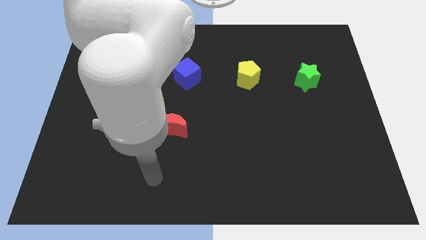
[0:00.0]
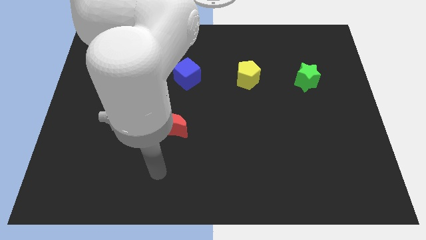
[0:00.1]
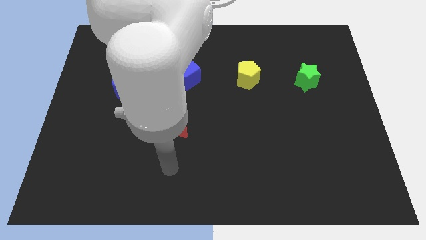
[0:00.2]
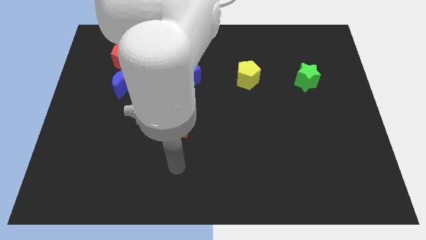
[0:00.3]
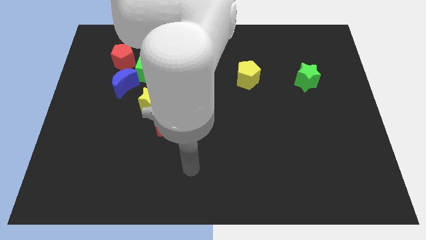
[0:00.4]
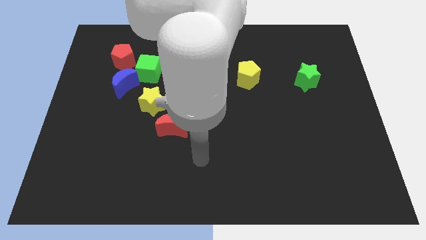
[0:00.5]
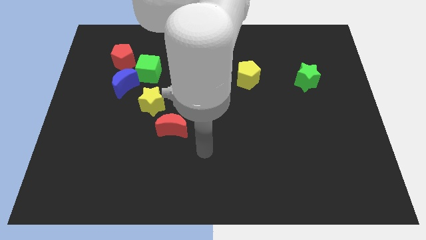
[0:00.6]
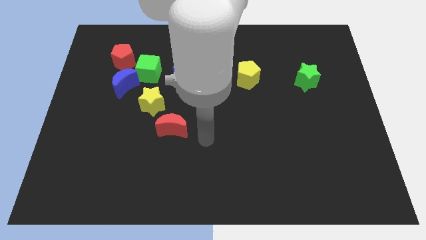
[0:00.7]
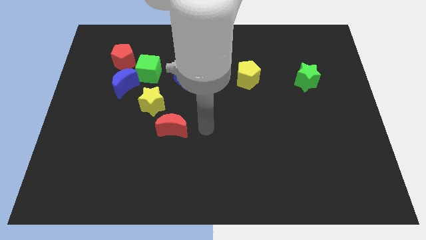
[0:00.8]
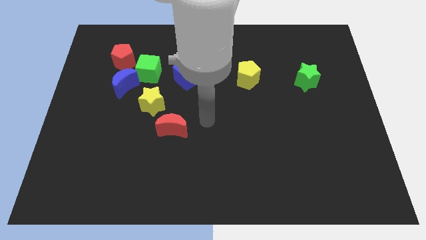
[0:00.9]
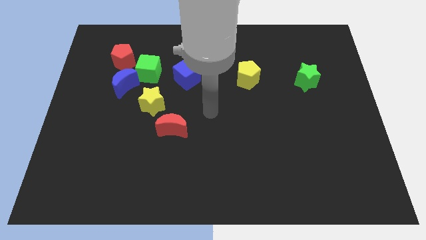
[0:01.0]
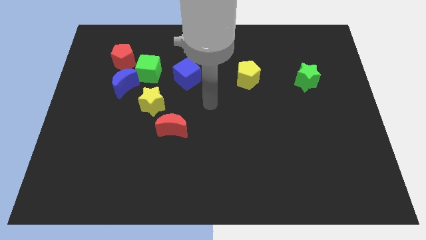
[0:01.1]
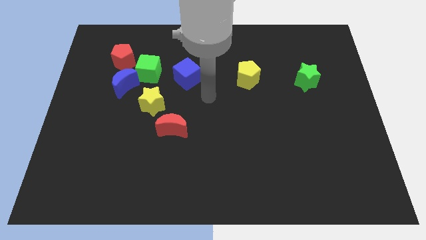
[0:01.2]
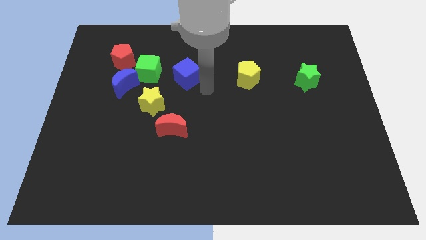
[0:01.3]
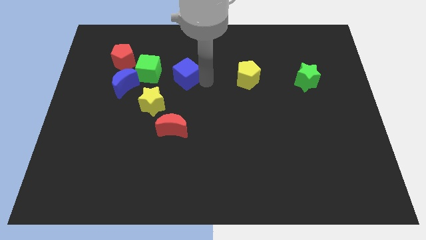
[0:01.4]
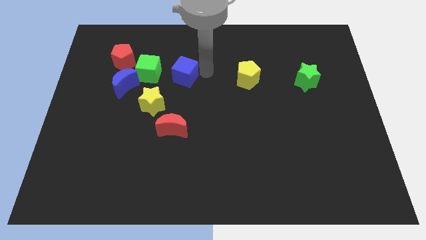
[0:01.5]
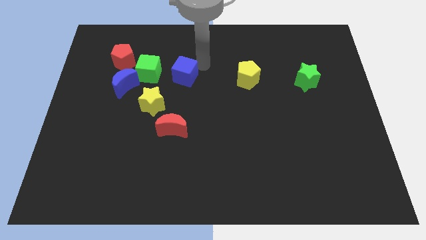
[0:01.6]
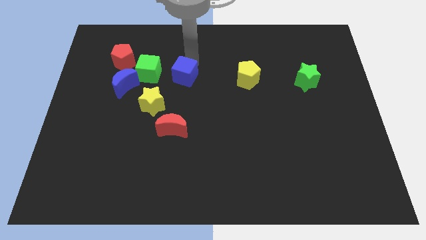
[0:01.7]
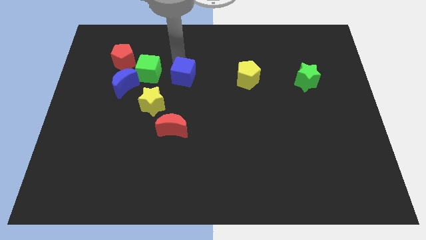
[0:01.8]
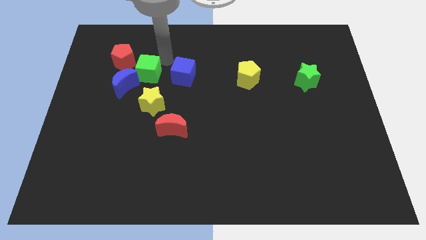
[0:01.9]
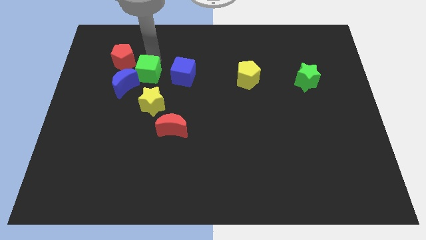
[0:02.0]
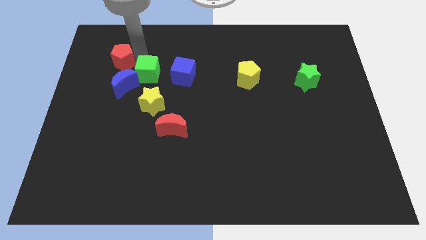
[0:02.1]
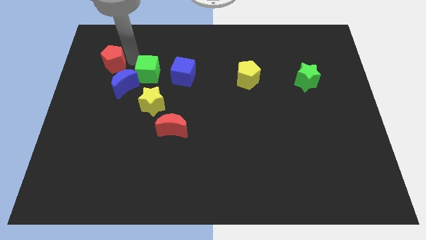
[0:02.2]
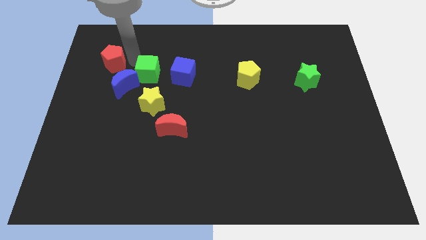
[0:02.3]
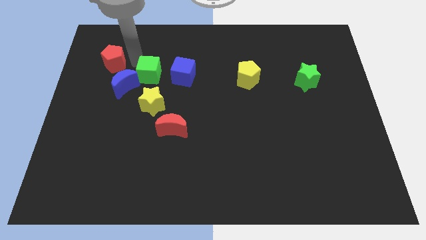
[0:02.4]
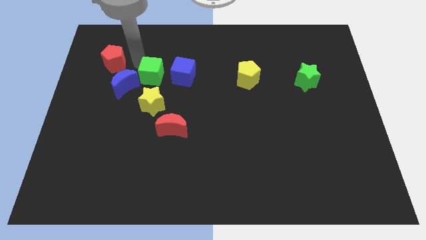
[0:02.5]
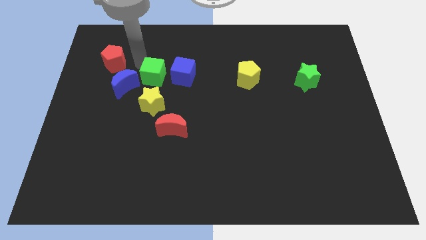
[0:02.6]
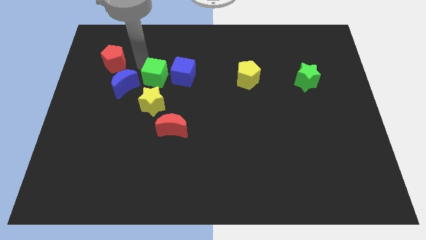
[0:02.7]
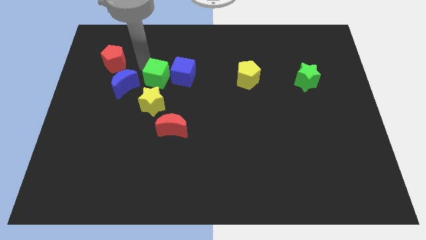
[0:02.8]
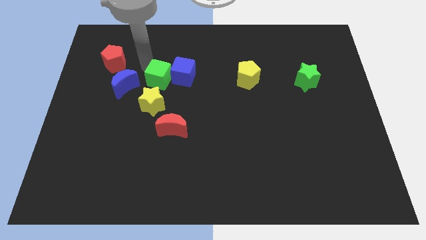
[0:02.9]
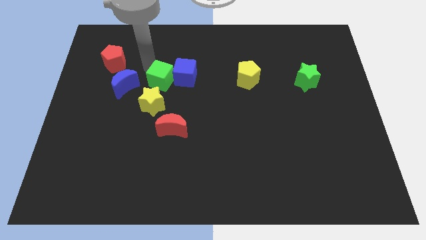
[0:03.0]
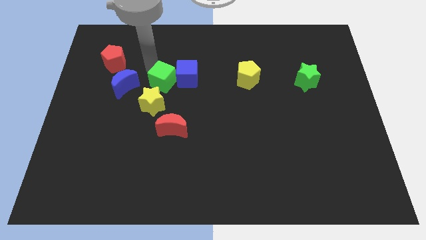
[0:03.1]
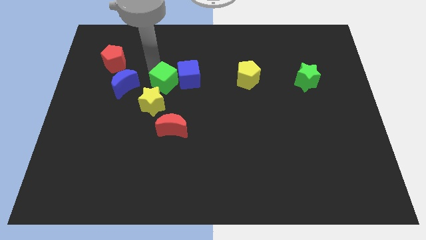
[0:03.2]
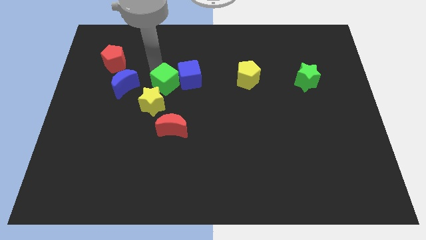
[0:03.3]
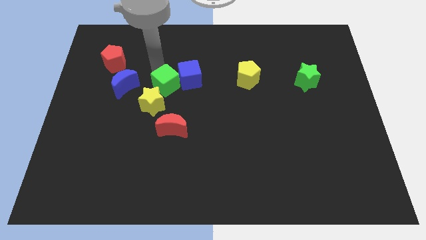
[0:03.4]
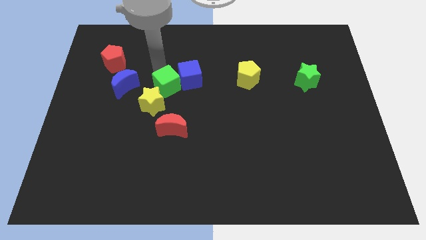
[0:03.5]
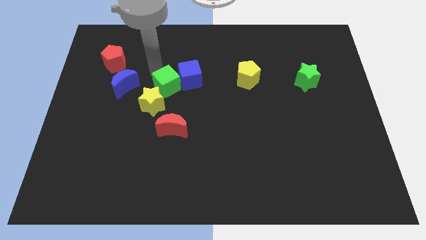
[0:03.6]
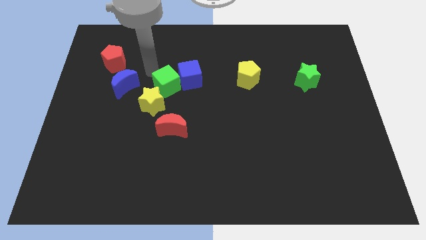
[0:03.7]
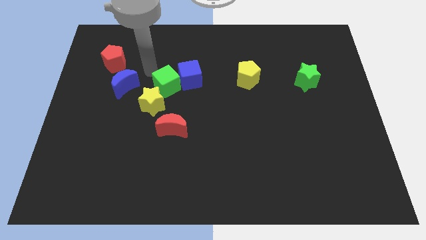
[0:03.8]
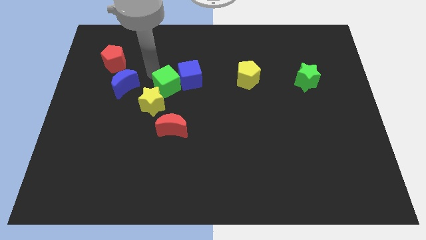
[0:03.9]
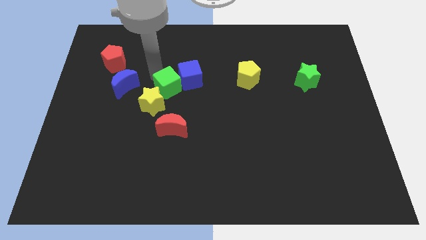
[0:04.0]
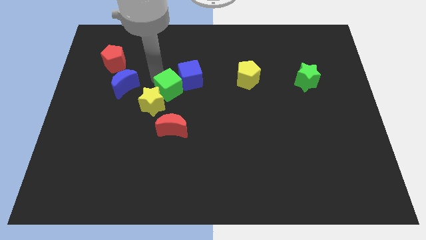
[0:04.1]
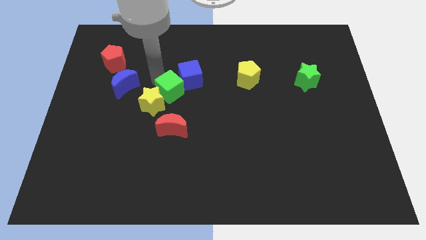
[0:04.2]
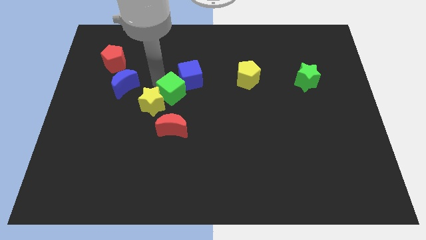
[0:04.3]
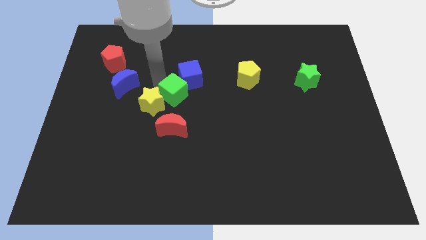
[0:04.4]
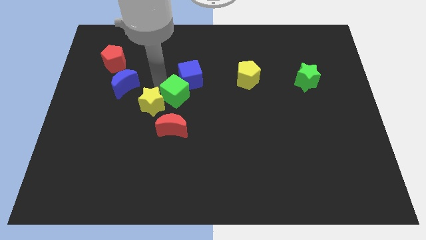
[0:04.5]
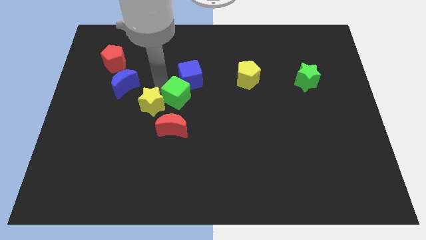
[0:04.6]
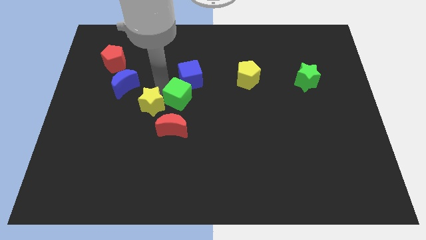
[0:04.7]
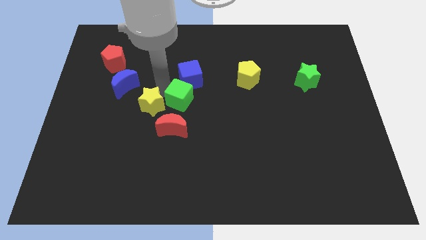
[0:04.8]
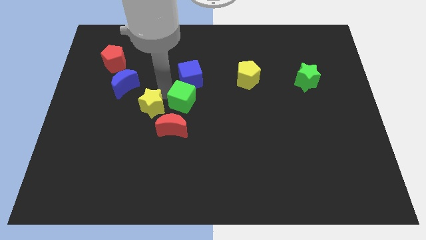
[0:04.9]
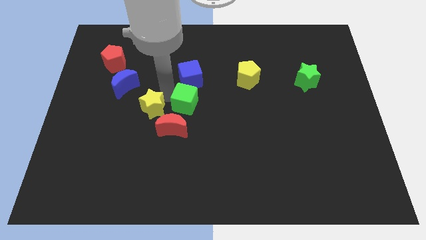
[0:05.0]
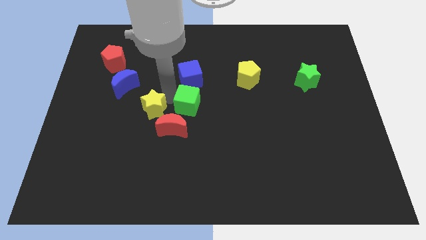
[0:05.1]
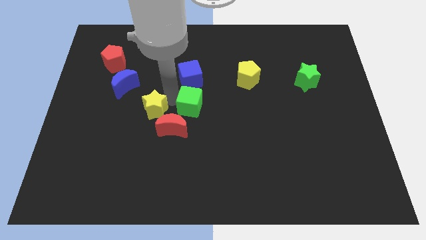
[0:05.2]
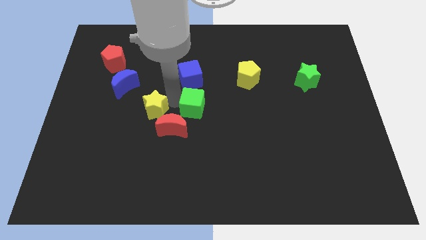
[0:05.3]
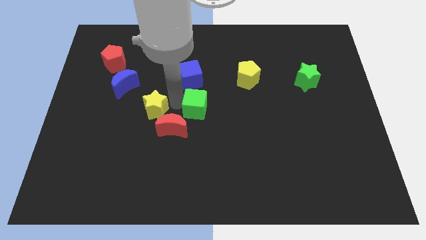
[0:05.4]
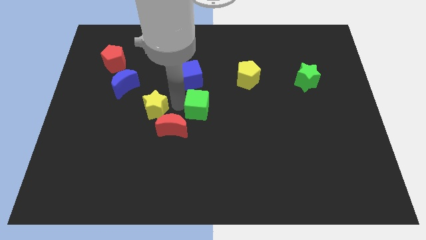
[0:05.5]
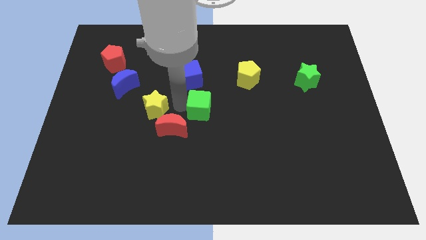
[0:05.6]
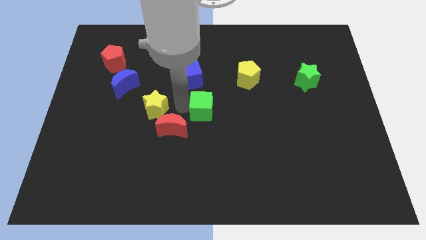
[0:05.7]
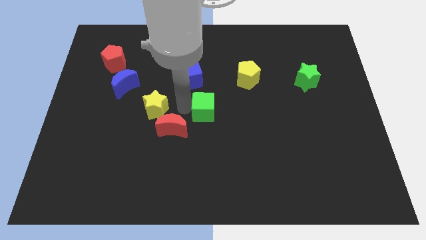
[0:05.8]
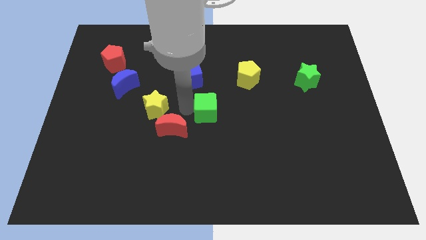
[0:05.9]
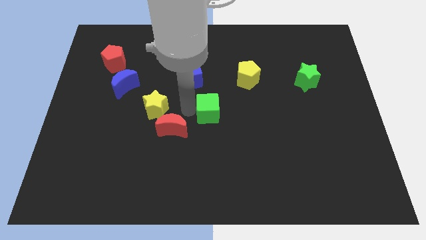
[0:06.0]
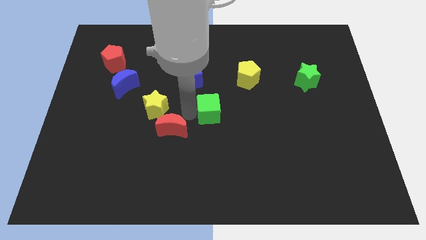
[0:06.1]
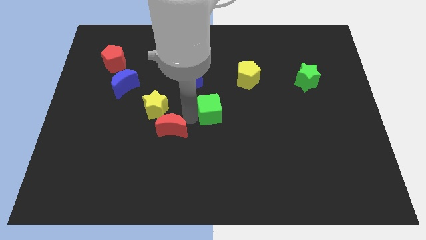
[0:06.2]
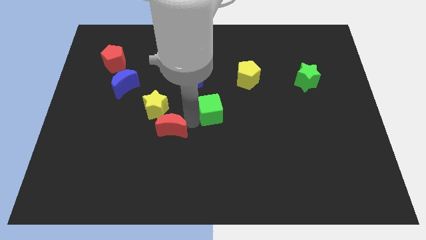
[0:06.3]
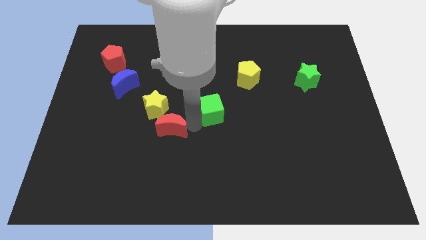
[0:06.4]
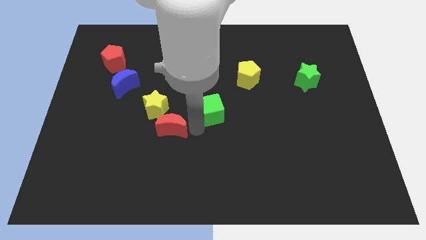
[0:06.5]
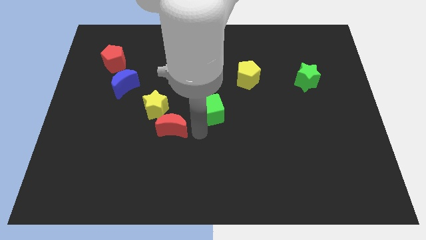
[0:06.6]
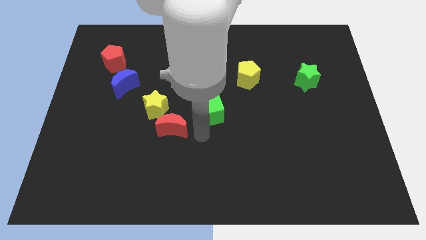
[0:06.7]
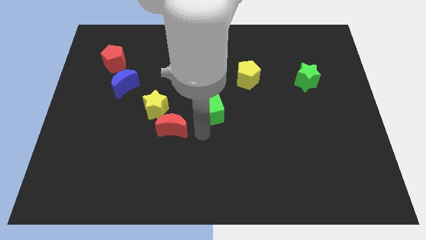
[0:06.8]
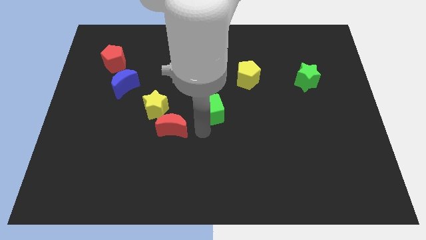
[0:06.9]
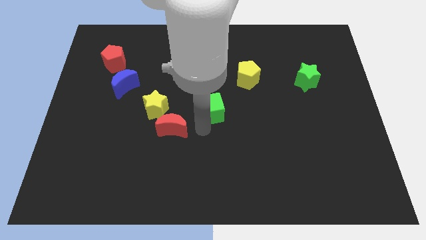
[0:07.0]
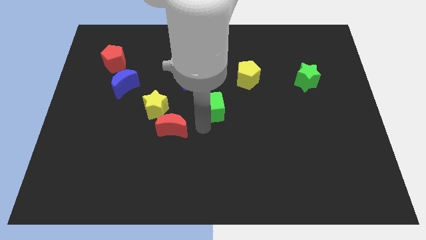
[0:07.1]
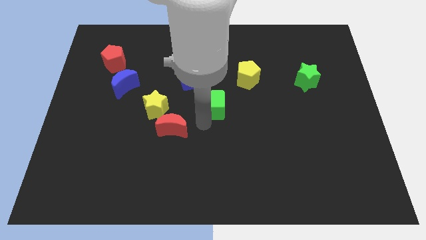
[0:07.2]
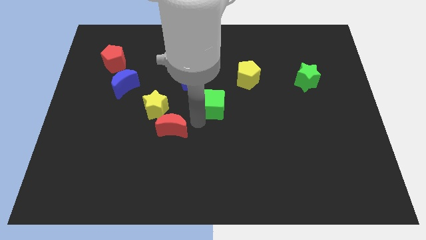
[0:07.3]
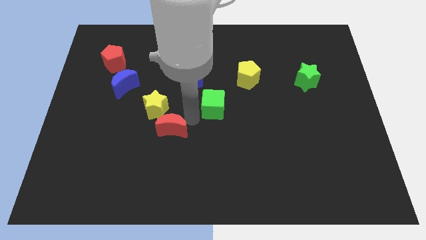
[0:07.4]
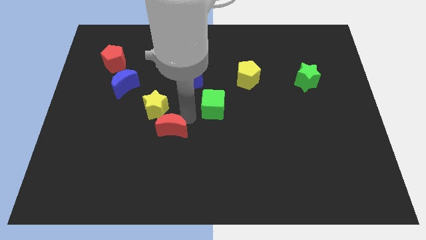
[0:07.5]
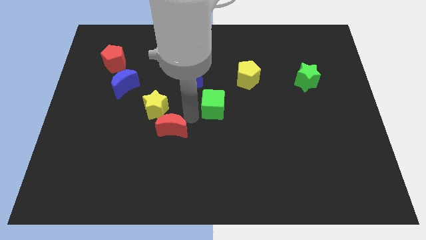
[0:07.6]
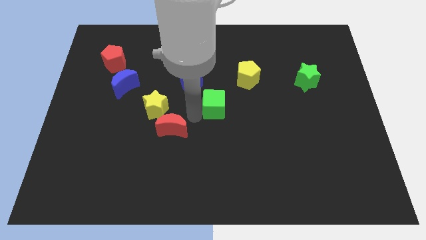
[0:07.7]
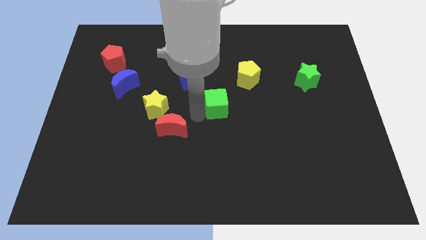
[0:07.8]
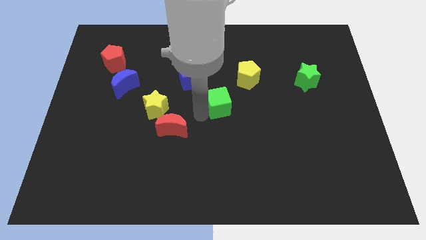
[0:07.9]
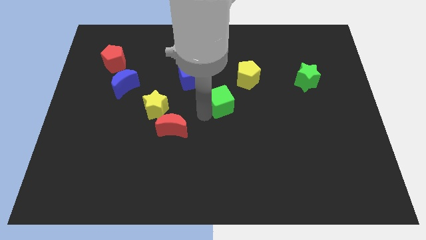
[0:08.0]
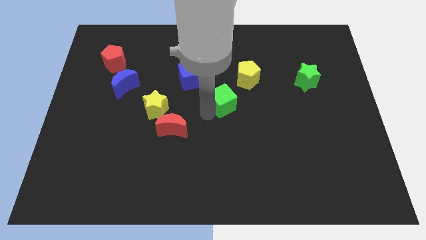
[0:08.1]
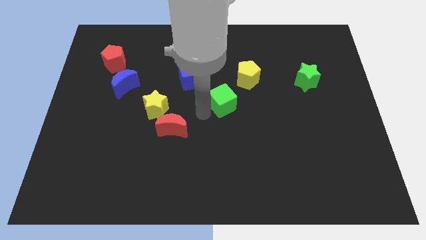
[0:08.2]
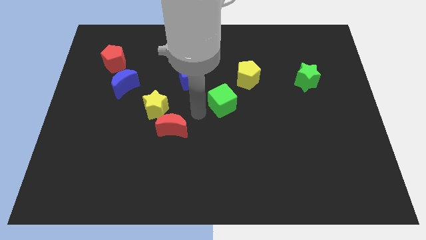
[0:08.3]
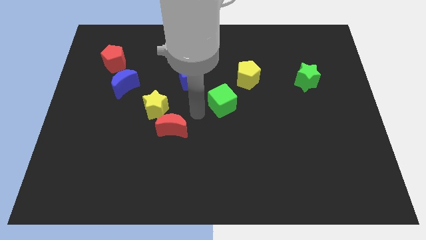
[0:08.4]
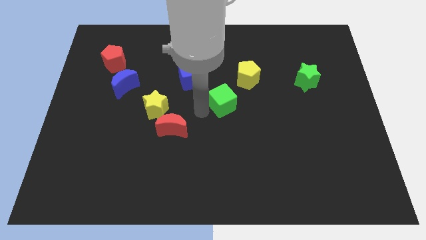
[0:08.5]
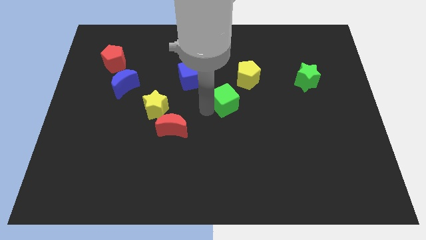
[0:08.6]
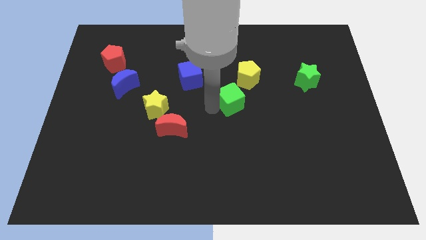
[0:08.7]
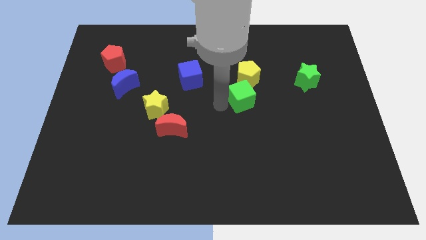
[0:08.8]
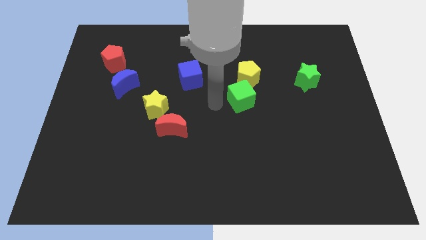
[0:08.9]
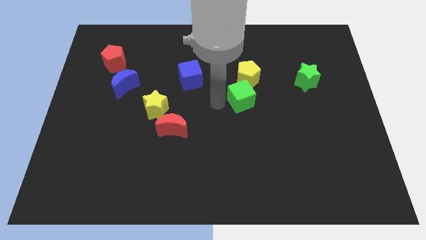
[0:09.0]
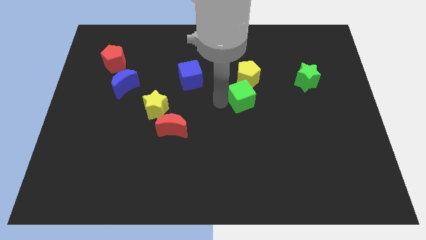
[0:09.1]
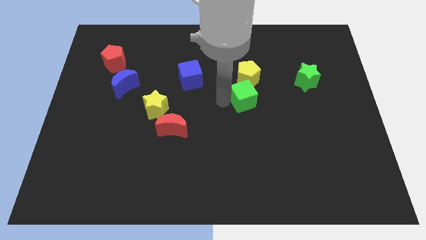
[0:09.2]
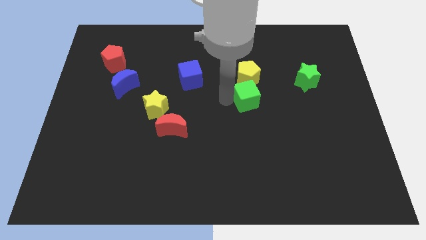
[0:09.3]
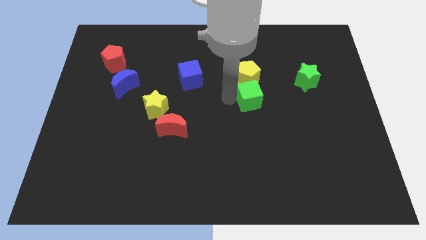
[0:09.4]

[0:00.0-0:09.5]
slide the green cube to the bottom right of the yellow pentagon
